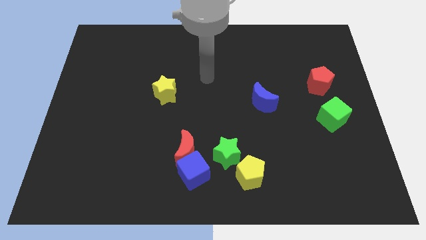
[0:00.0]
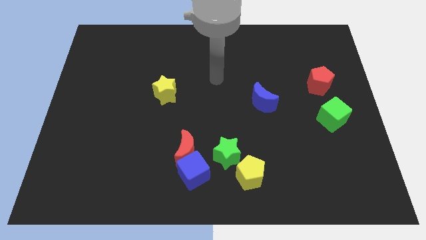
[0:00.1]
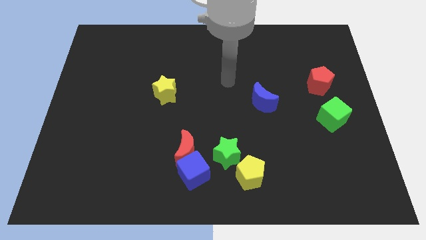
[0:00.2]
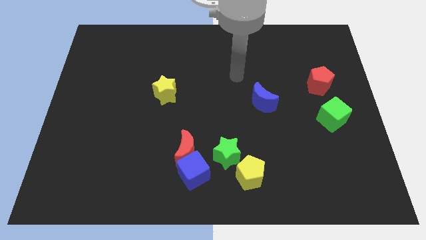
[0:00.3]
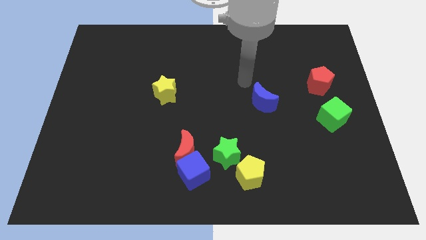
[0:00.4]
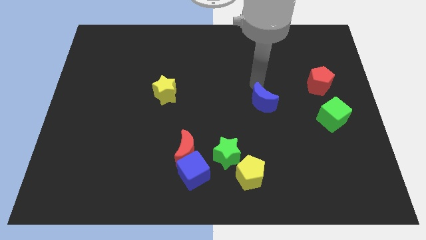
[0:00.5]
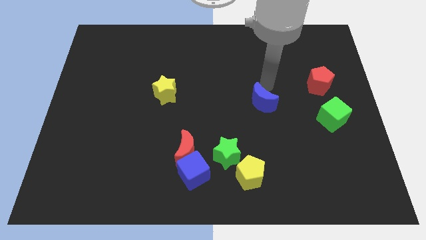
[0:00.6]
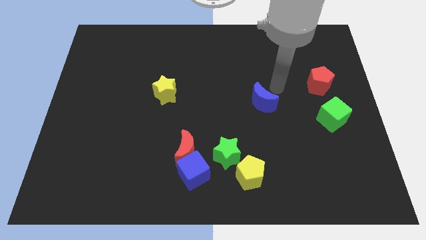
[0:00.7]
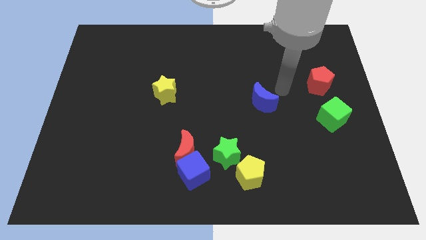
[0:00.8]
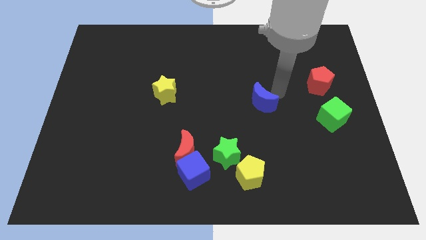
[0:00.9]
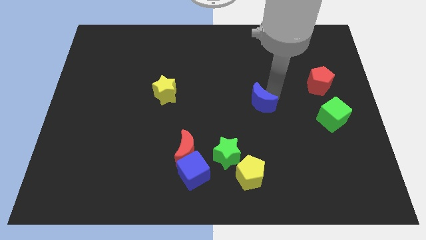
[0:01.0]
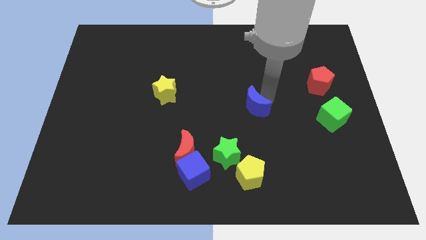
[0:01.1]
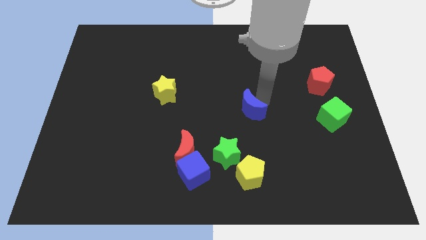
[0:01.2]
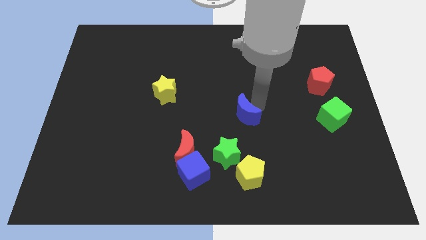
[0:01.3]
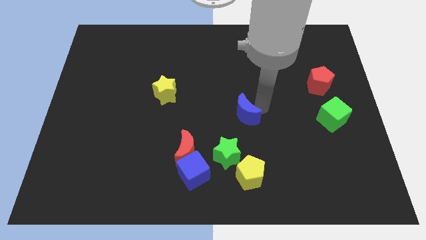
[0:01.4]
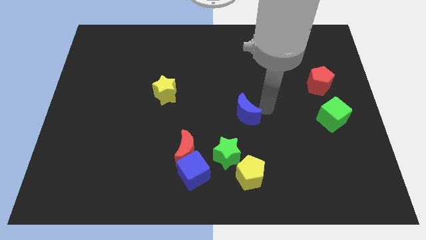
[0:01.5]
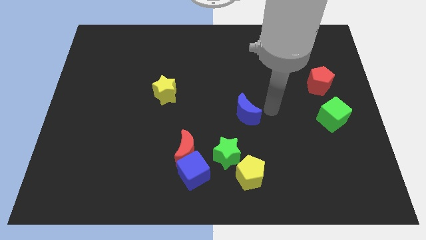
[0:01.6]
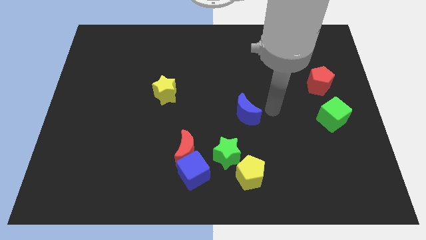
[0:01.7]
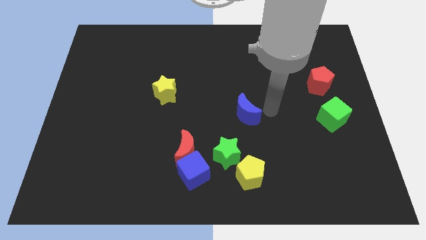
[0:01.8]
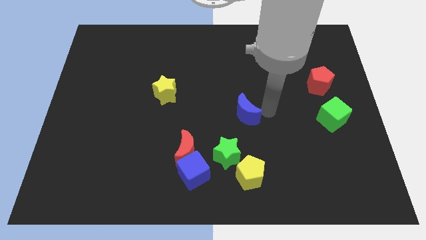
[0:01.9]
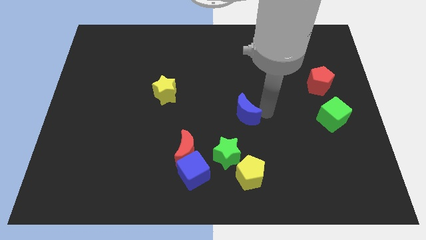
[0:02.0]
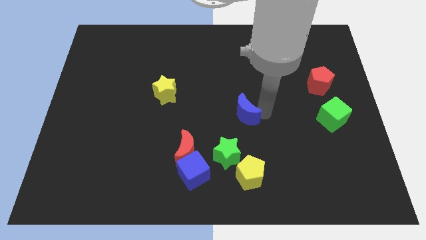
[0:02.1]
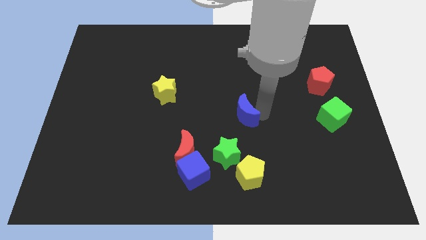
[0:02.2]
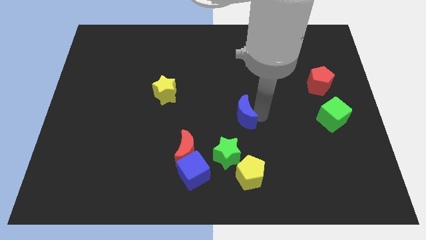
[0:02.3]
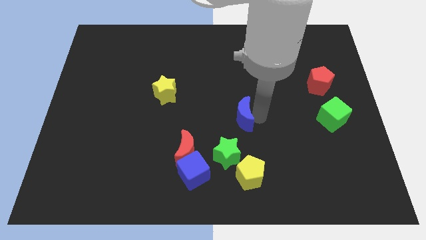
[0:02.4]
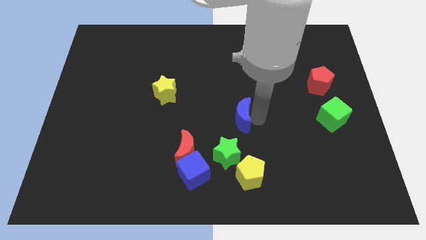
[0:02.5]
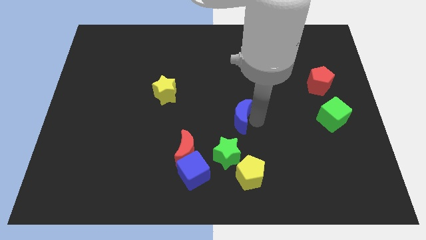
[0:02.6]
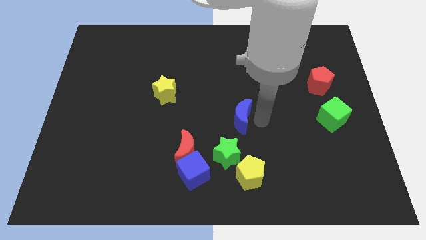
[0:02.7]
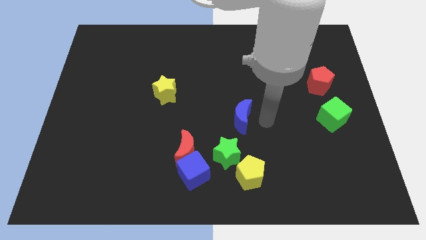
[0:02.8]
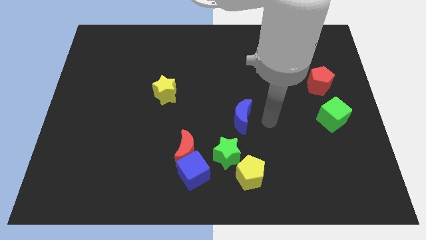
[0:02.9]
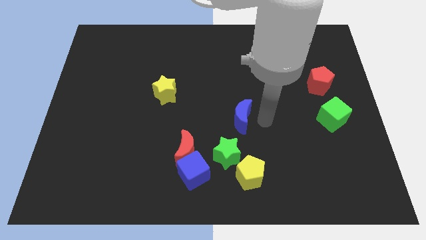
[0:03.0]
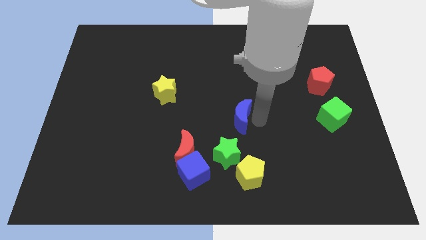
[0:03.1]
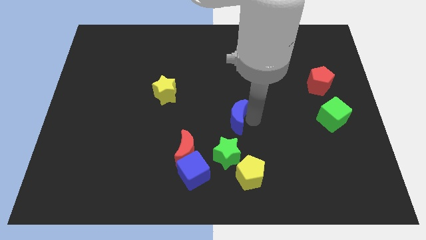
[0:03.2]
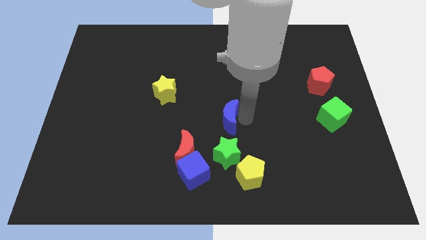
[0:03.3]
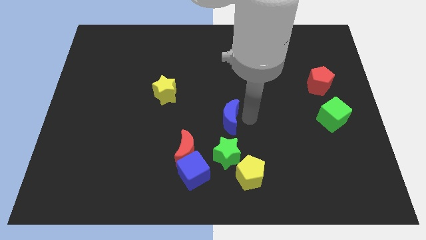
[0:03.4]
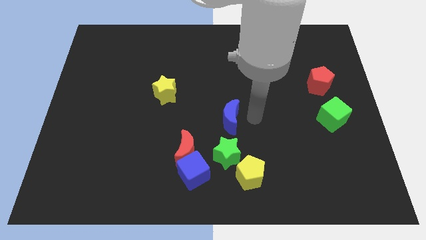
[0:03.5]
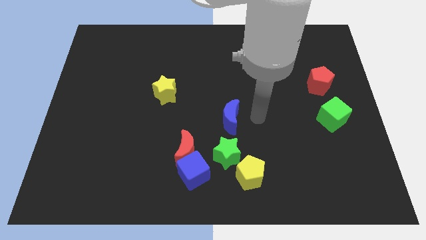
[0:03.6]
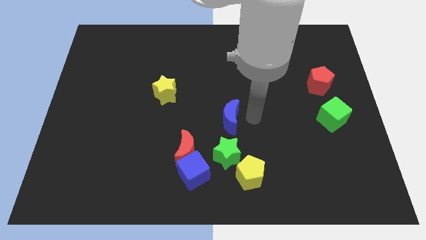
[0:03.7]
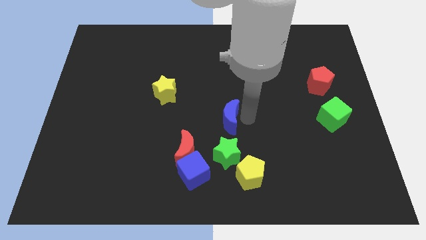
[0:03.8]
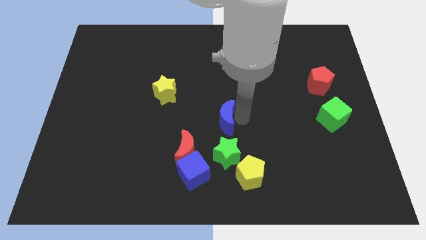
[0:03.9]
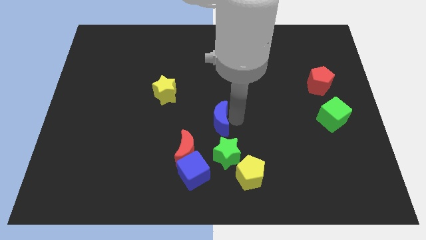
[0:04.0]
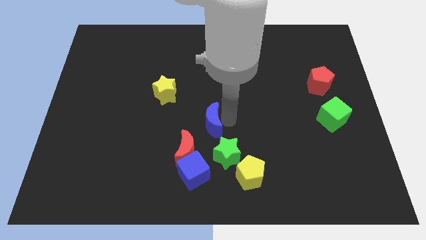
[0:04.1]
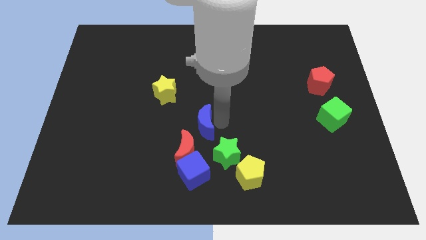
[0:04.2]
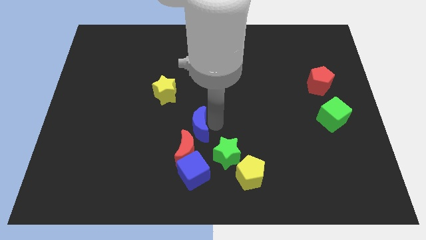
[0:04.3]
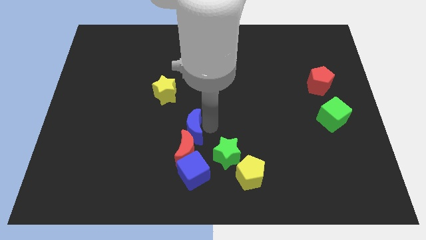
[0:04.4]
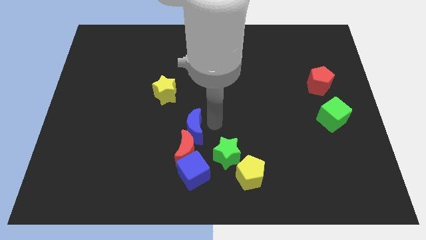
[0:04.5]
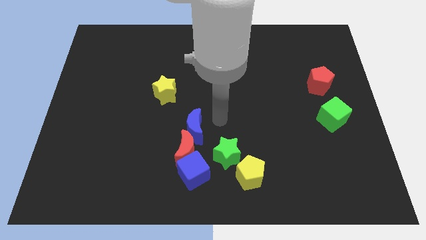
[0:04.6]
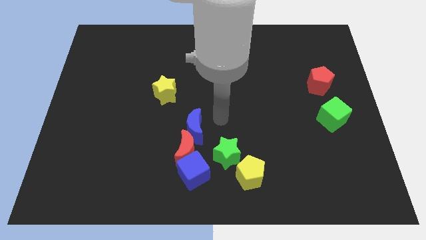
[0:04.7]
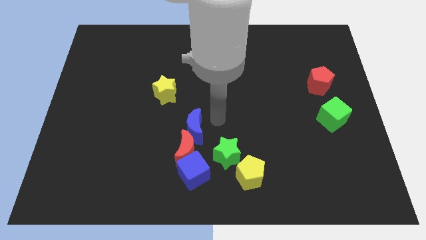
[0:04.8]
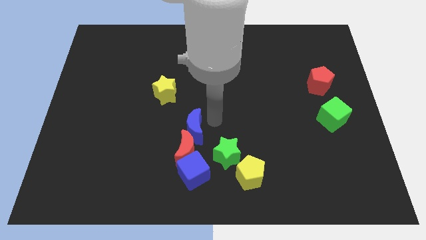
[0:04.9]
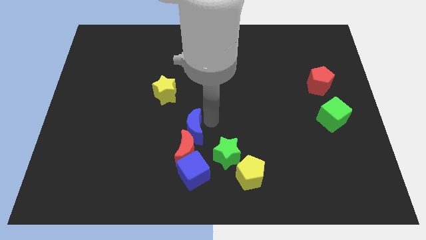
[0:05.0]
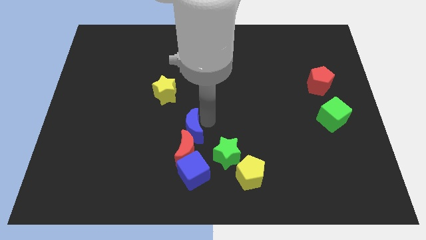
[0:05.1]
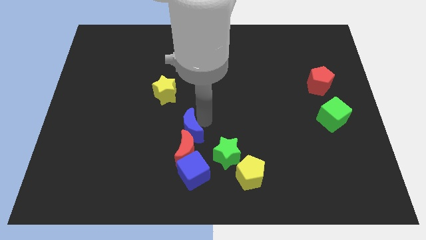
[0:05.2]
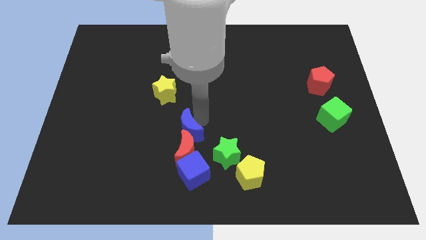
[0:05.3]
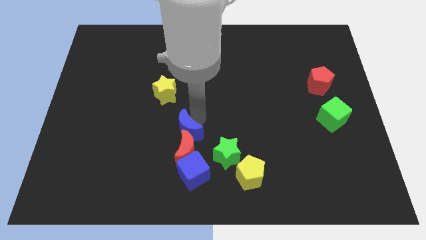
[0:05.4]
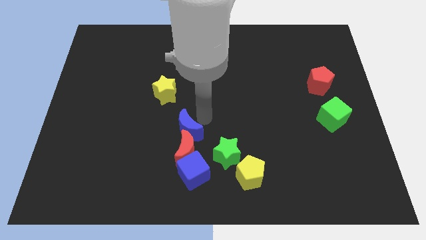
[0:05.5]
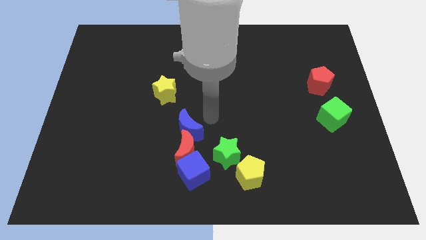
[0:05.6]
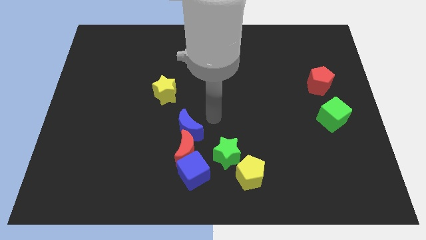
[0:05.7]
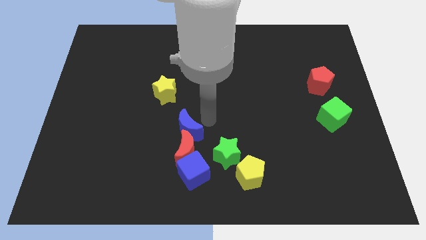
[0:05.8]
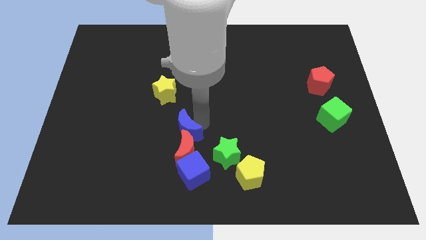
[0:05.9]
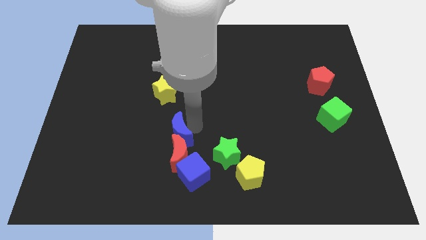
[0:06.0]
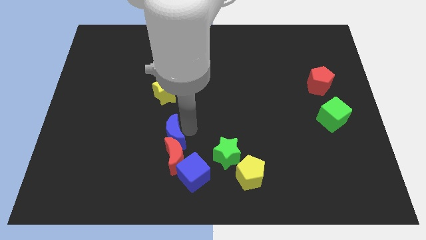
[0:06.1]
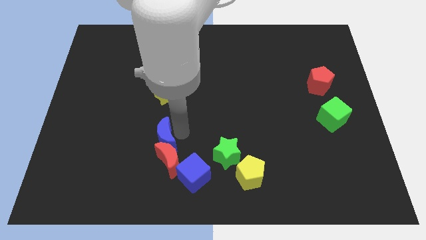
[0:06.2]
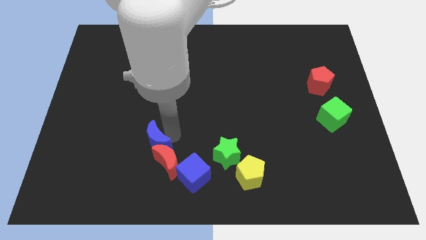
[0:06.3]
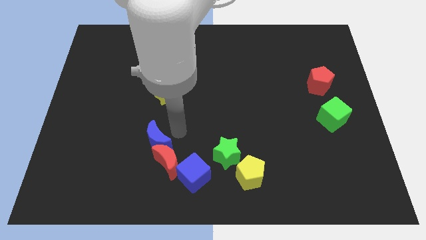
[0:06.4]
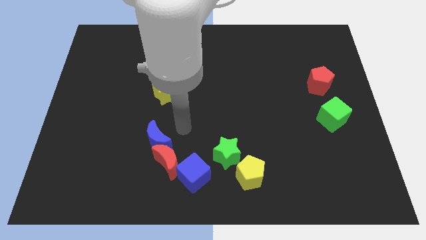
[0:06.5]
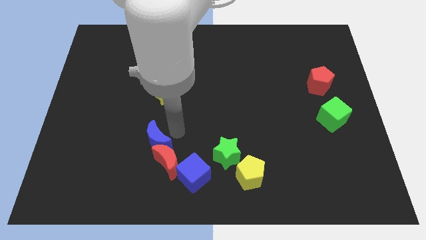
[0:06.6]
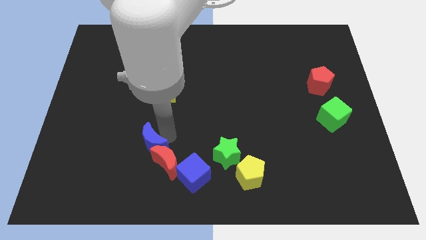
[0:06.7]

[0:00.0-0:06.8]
slide the blue moon to the left side of the red moon
